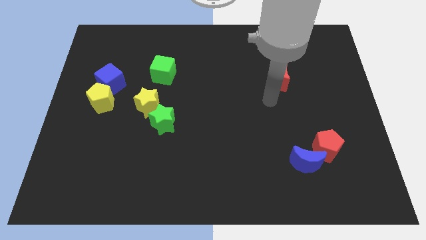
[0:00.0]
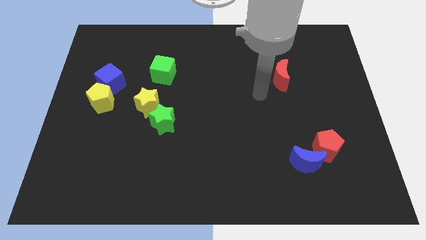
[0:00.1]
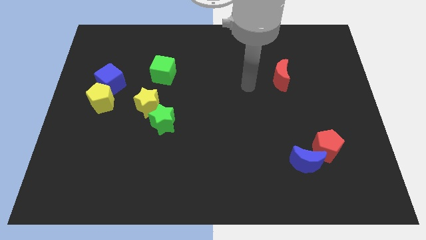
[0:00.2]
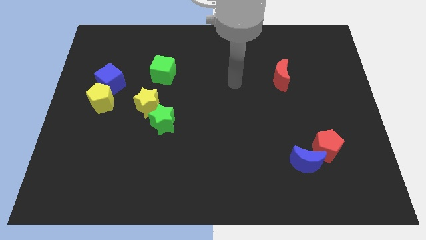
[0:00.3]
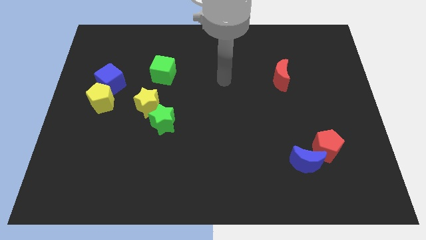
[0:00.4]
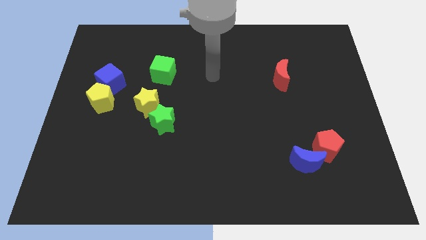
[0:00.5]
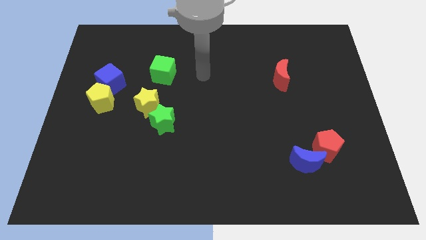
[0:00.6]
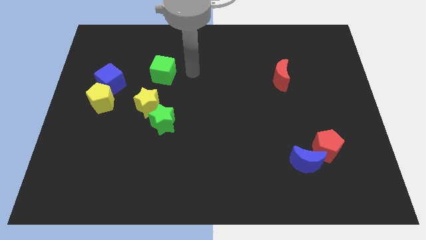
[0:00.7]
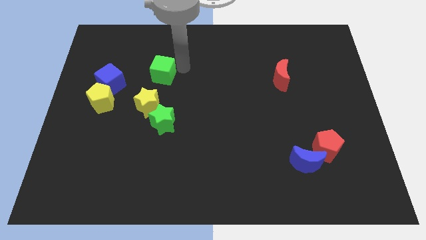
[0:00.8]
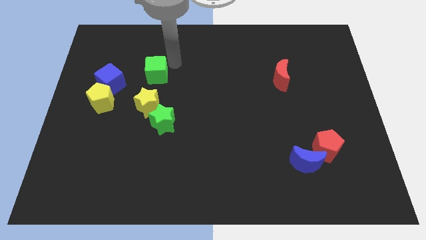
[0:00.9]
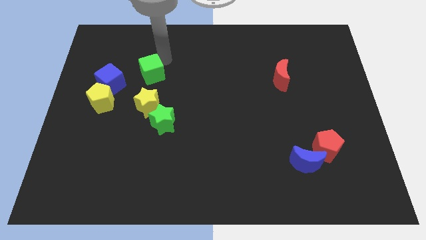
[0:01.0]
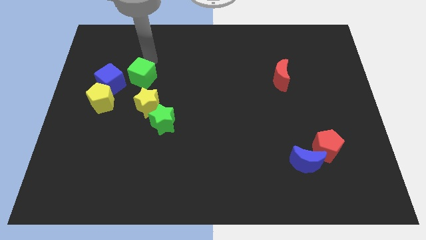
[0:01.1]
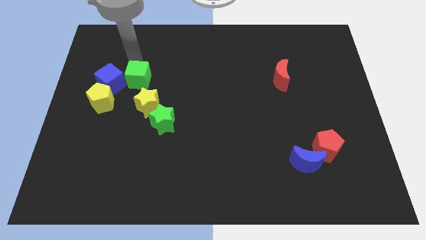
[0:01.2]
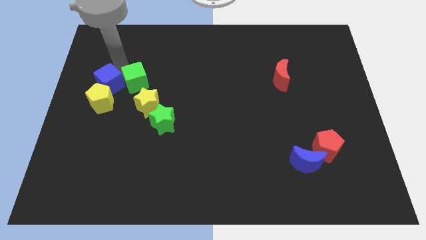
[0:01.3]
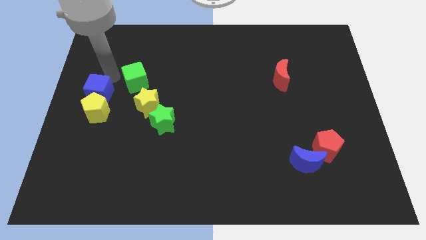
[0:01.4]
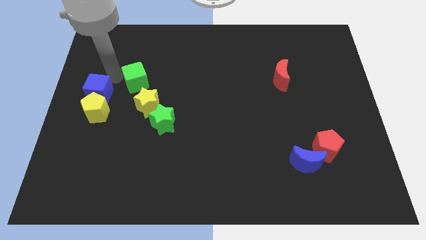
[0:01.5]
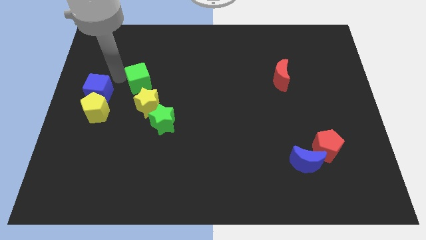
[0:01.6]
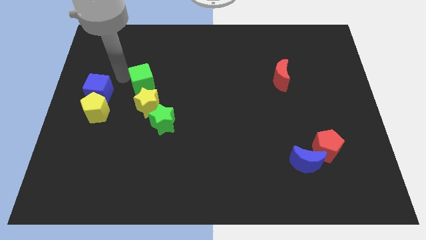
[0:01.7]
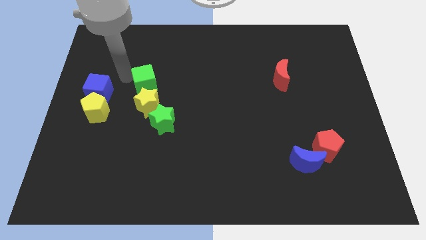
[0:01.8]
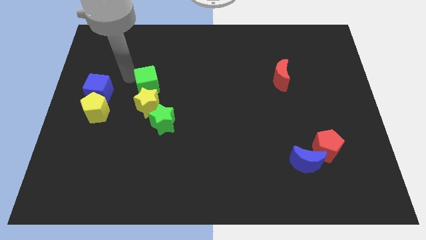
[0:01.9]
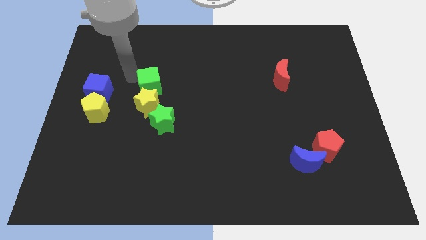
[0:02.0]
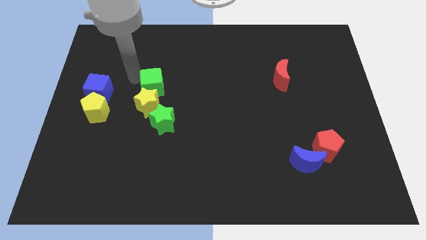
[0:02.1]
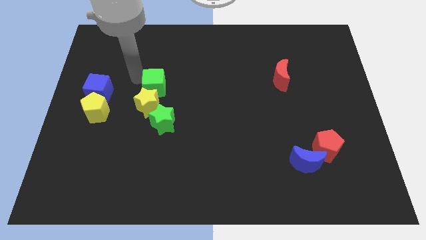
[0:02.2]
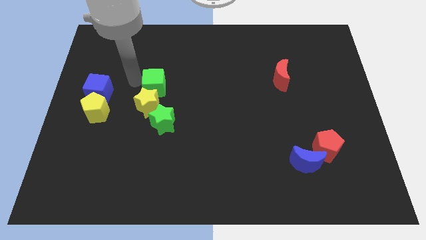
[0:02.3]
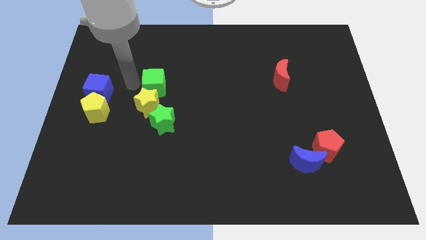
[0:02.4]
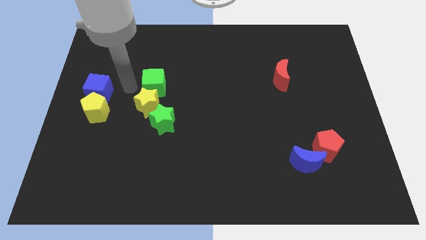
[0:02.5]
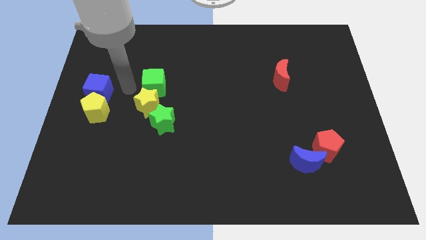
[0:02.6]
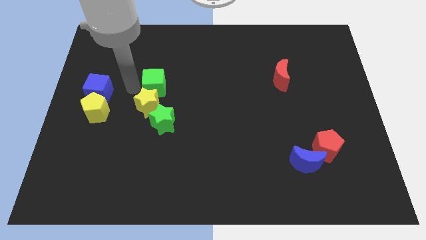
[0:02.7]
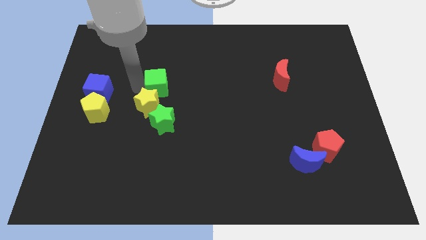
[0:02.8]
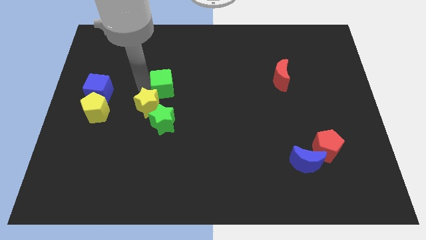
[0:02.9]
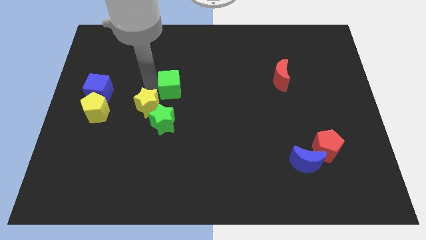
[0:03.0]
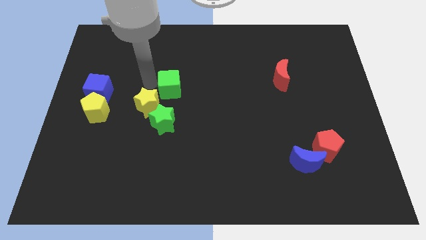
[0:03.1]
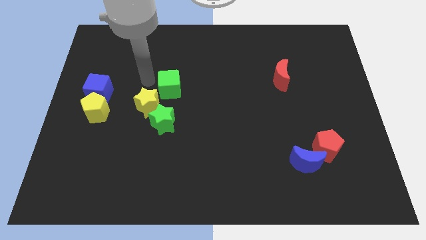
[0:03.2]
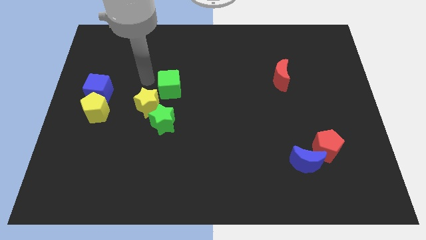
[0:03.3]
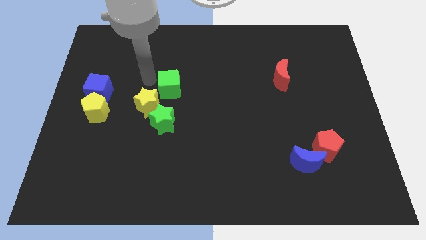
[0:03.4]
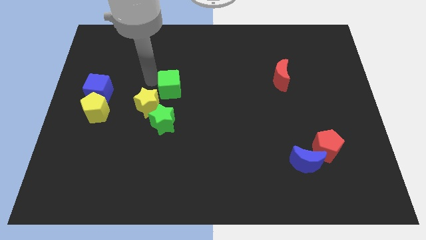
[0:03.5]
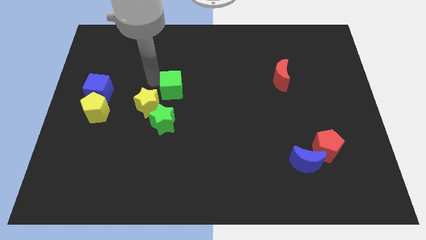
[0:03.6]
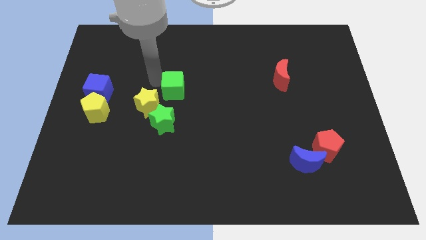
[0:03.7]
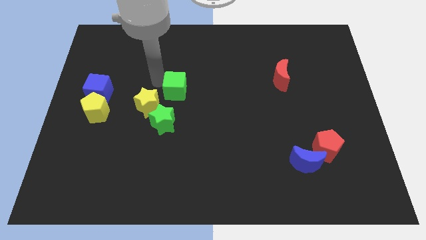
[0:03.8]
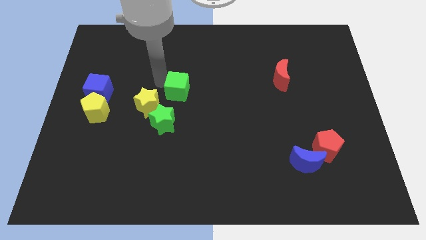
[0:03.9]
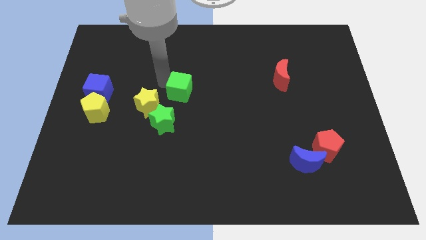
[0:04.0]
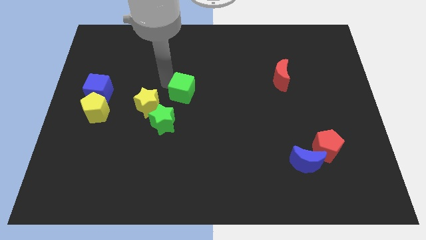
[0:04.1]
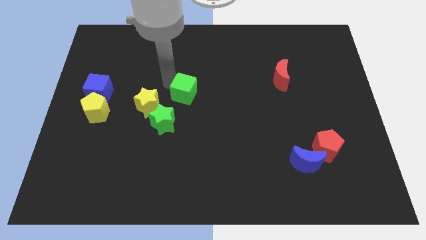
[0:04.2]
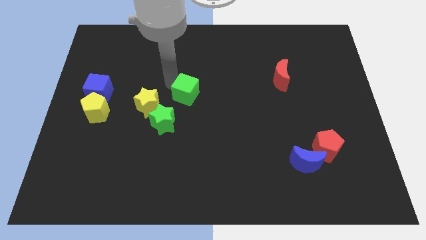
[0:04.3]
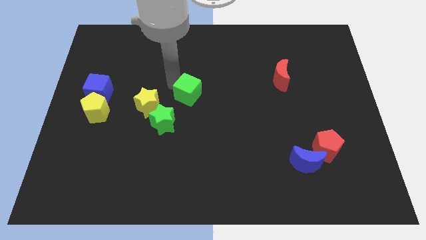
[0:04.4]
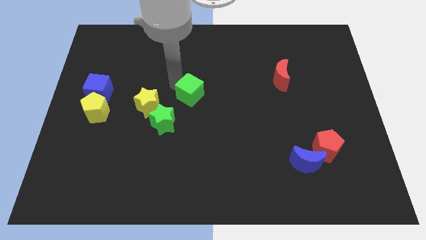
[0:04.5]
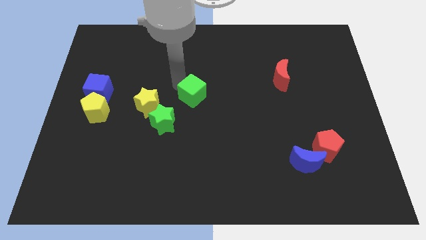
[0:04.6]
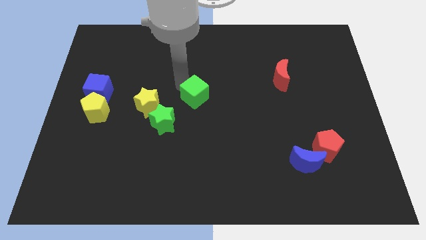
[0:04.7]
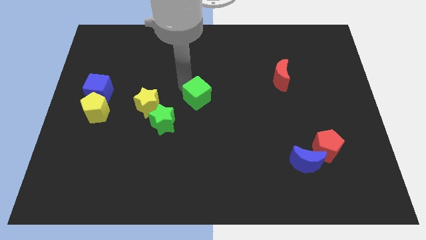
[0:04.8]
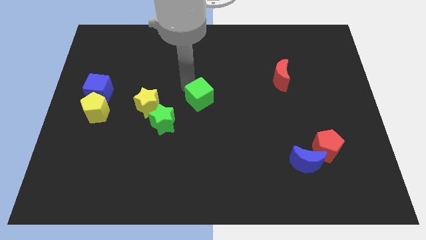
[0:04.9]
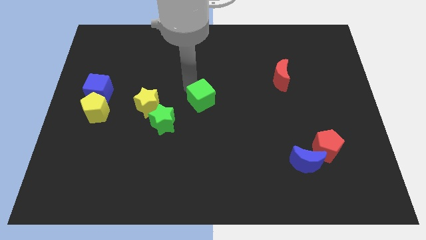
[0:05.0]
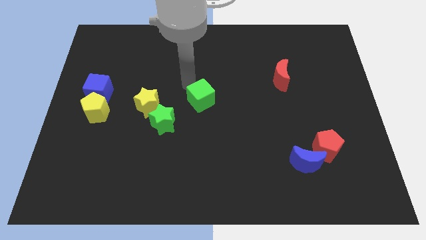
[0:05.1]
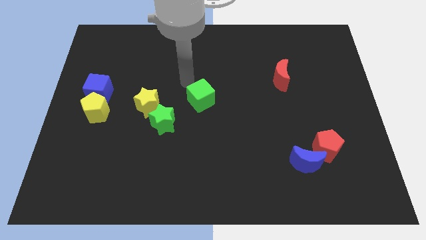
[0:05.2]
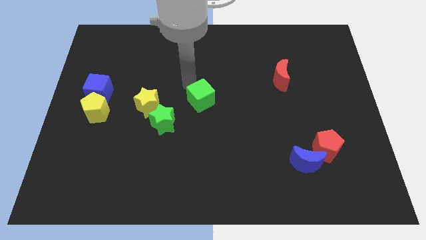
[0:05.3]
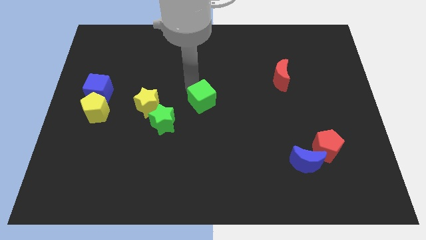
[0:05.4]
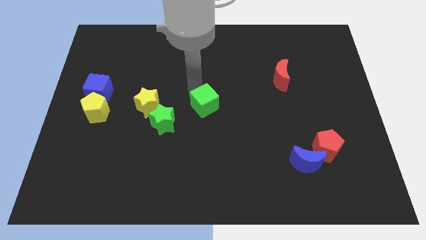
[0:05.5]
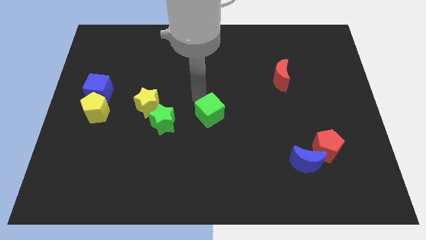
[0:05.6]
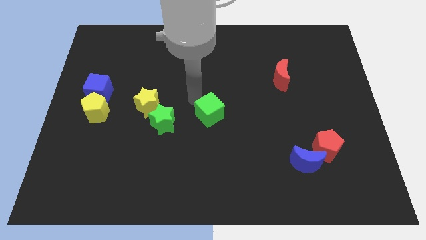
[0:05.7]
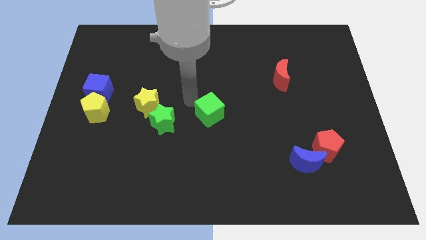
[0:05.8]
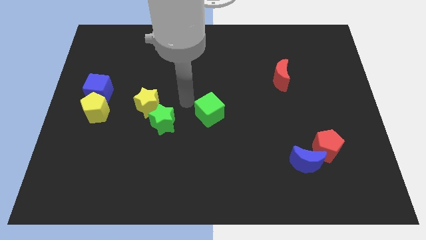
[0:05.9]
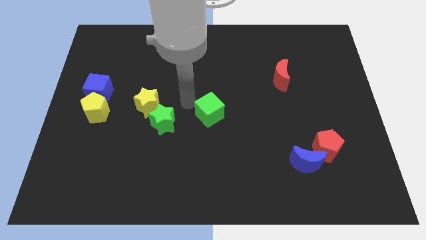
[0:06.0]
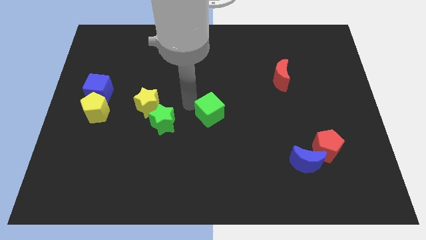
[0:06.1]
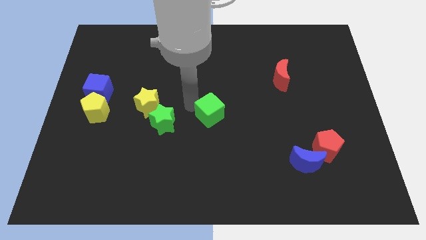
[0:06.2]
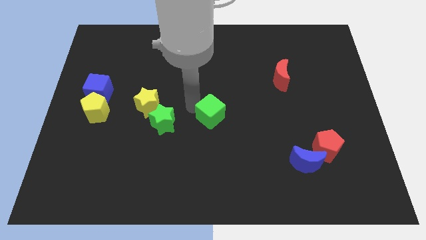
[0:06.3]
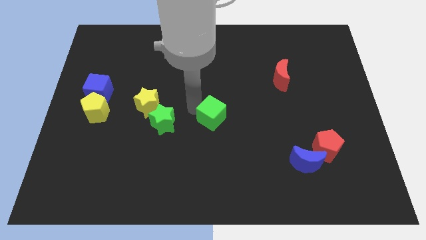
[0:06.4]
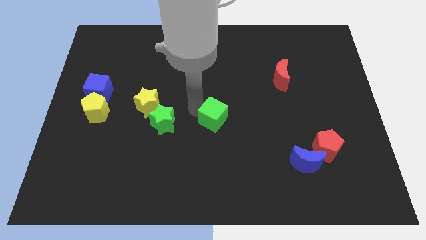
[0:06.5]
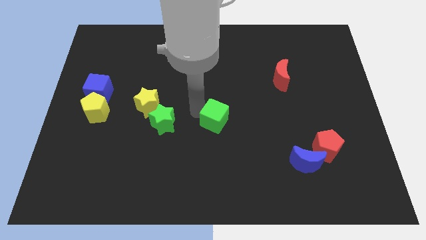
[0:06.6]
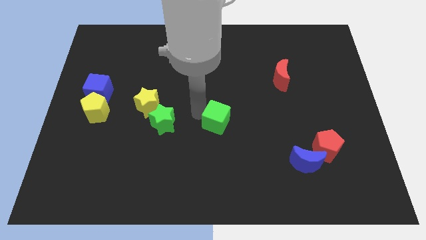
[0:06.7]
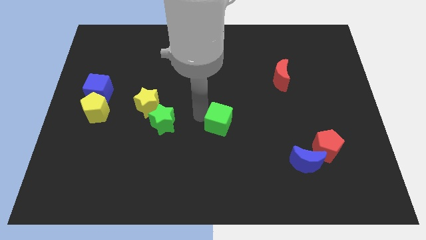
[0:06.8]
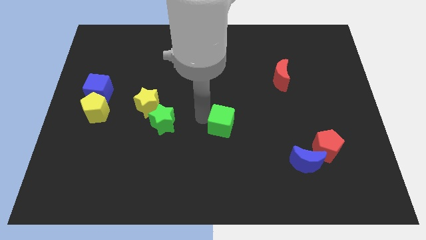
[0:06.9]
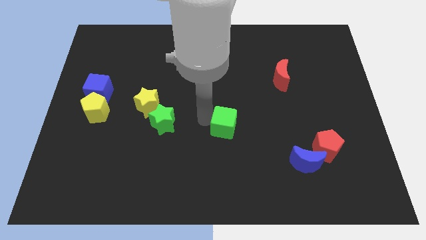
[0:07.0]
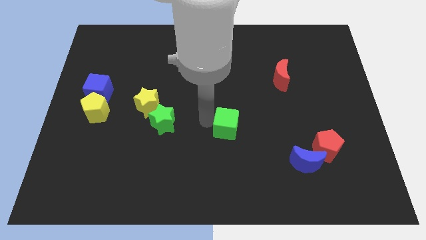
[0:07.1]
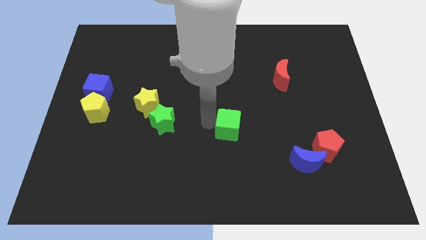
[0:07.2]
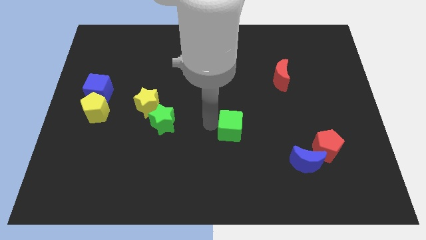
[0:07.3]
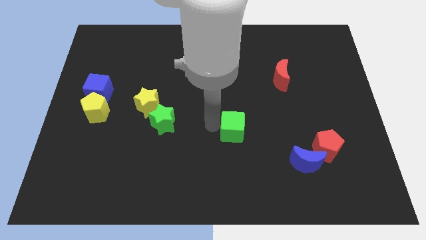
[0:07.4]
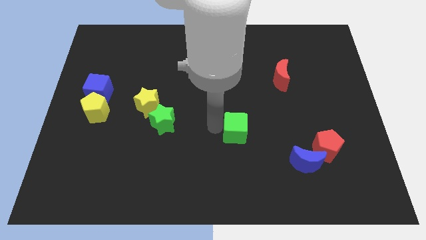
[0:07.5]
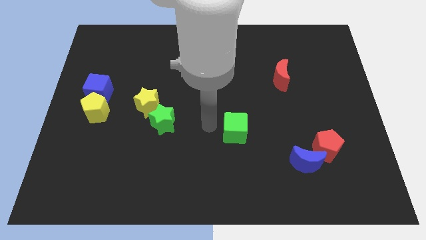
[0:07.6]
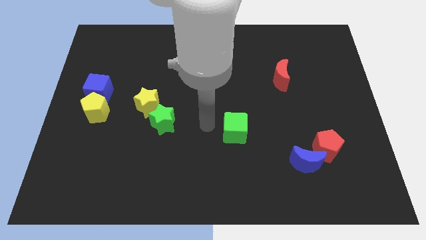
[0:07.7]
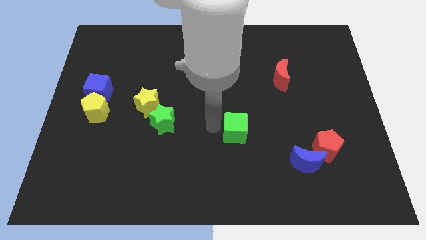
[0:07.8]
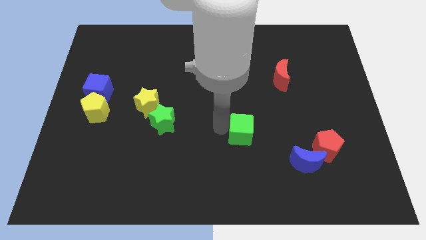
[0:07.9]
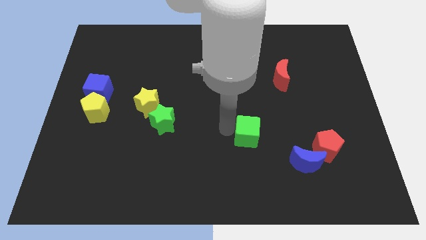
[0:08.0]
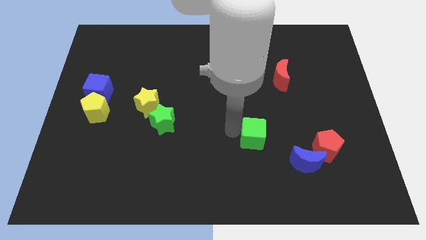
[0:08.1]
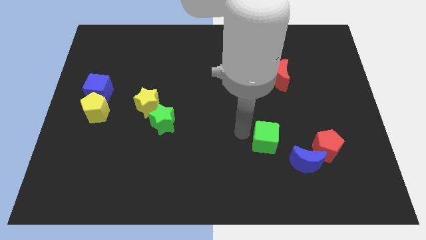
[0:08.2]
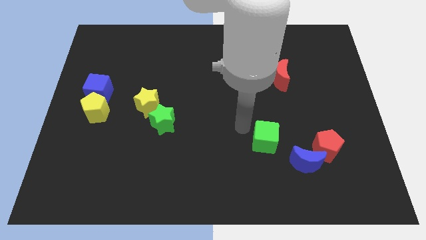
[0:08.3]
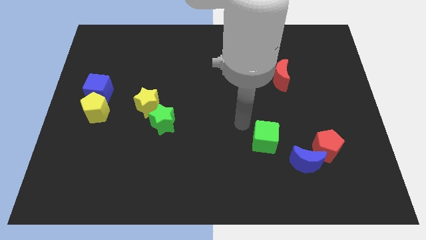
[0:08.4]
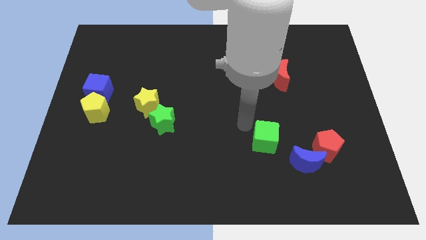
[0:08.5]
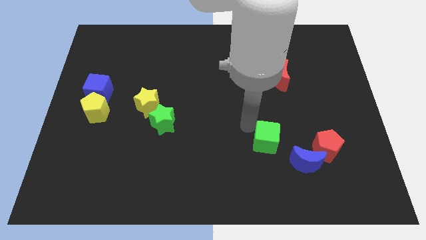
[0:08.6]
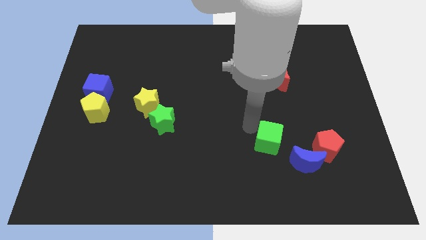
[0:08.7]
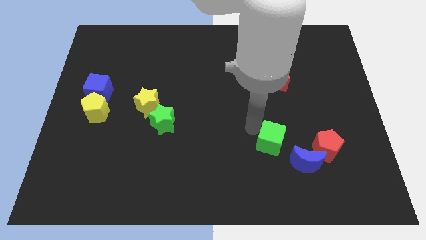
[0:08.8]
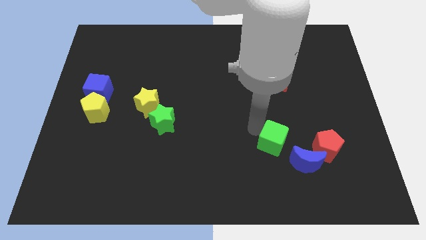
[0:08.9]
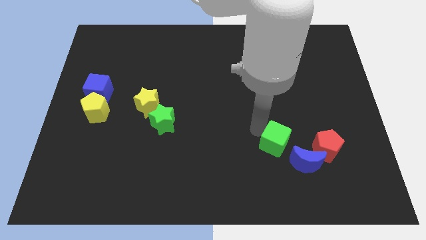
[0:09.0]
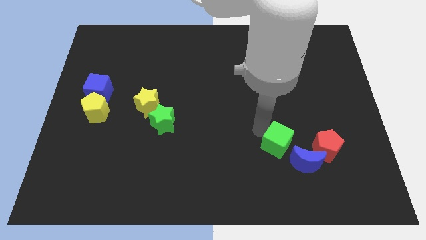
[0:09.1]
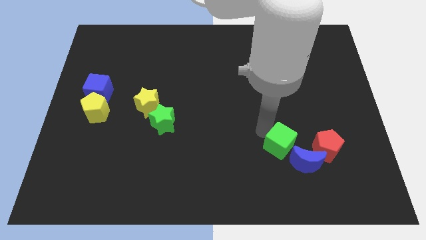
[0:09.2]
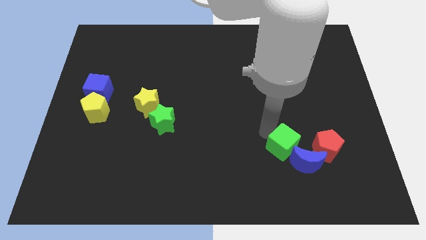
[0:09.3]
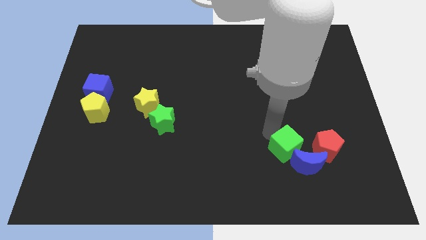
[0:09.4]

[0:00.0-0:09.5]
slide the green cube next to the blue moon
